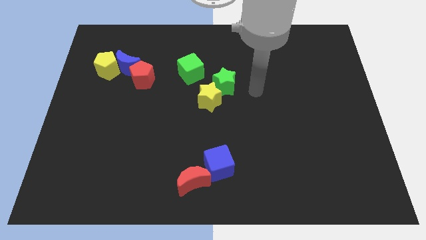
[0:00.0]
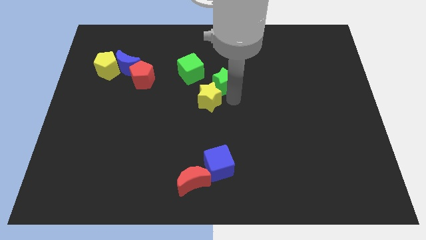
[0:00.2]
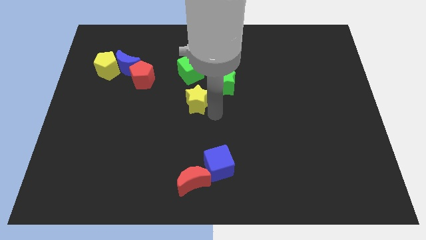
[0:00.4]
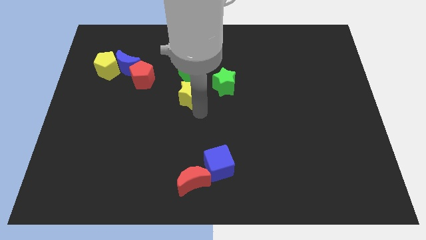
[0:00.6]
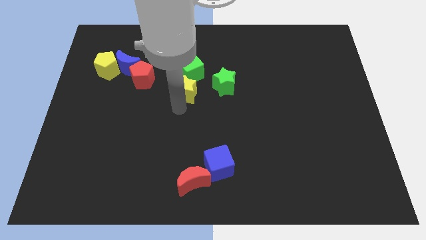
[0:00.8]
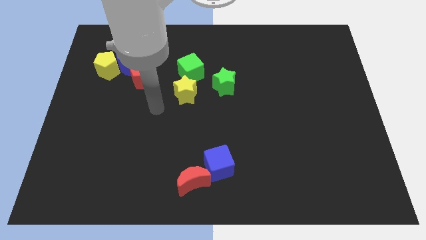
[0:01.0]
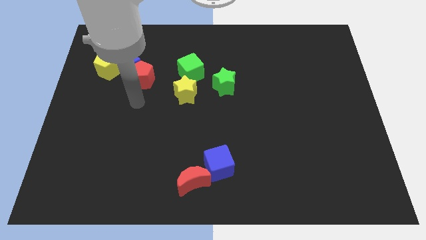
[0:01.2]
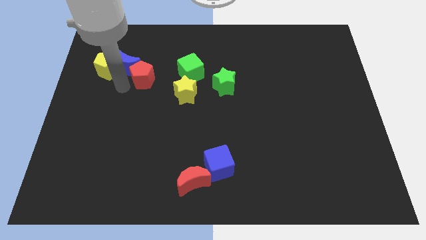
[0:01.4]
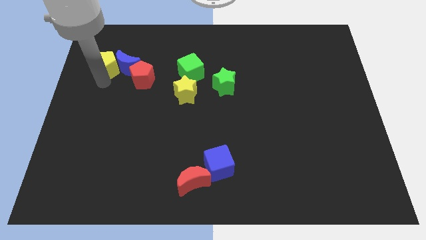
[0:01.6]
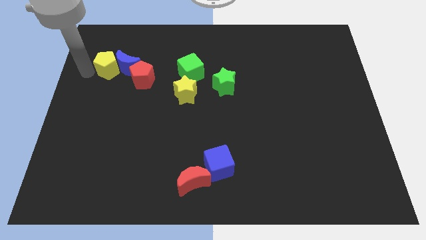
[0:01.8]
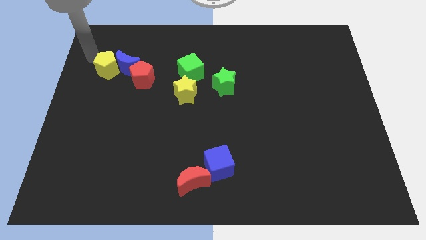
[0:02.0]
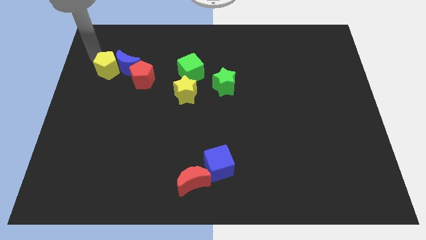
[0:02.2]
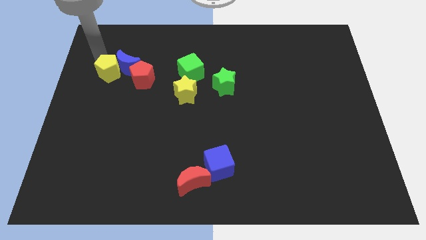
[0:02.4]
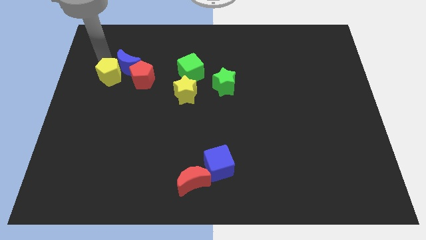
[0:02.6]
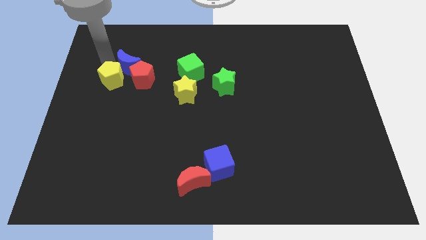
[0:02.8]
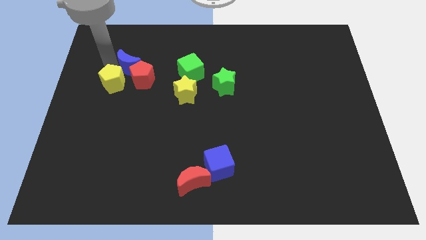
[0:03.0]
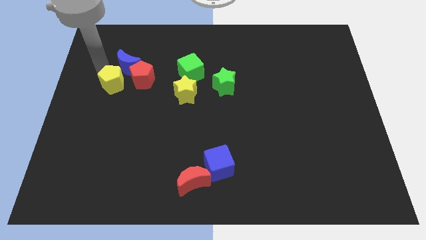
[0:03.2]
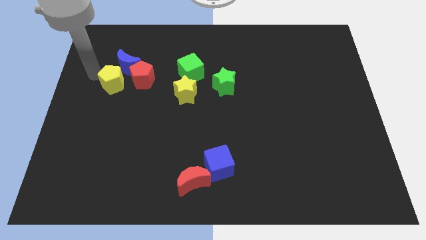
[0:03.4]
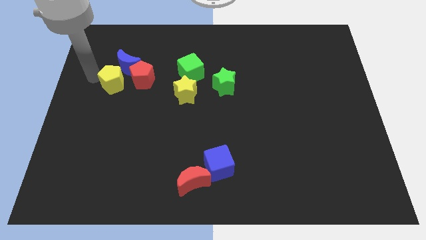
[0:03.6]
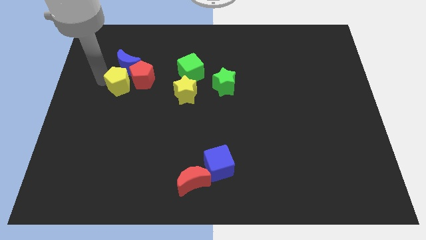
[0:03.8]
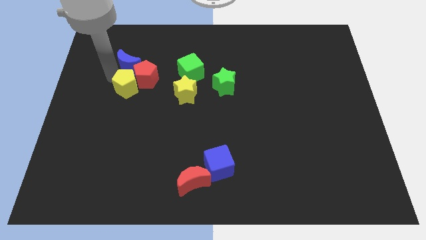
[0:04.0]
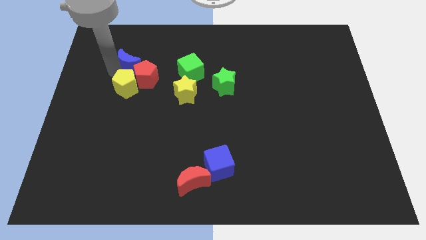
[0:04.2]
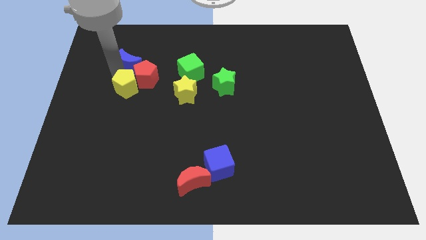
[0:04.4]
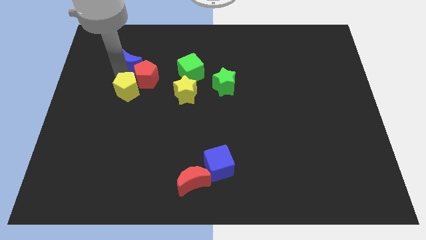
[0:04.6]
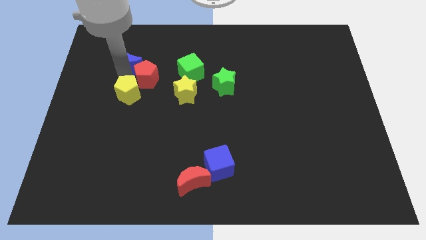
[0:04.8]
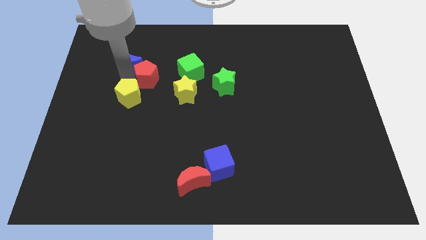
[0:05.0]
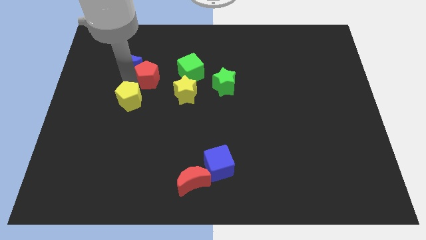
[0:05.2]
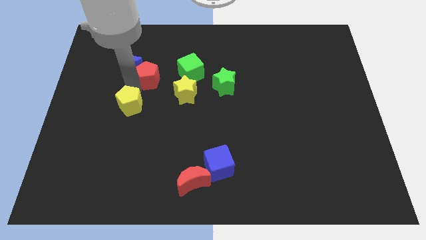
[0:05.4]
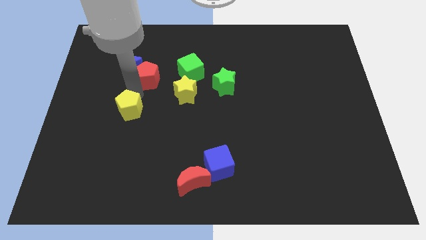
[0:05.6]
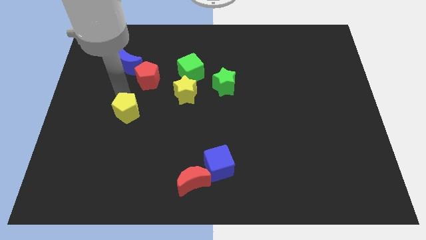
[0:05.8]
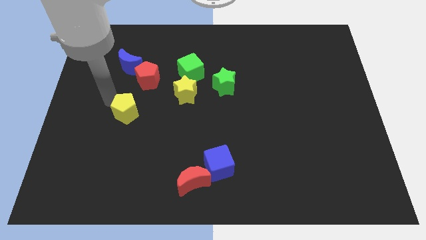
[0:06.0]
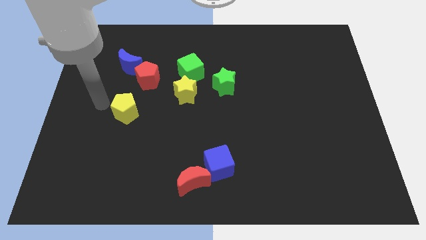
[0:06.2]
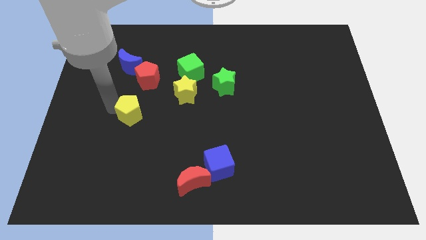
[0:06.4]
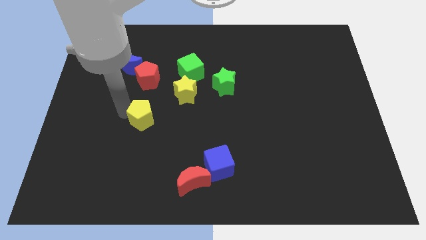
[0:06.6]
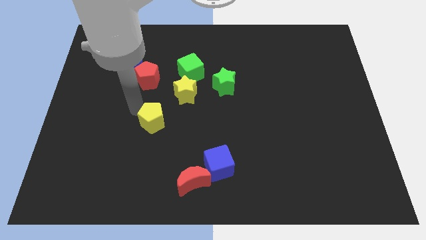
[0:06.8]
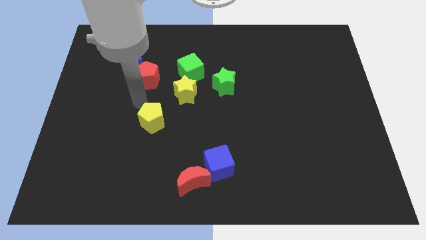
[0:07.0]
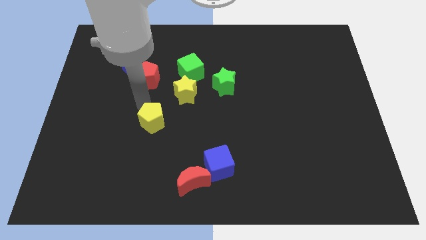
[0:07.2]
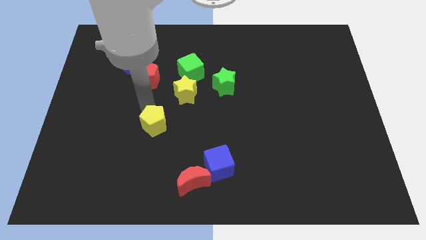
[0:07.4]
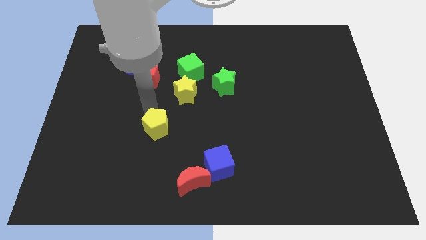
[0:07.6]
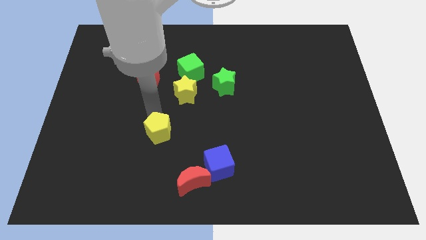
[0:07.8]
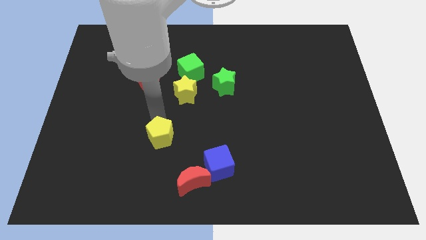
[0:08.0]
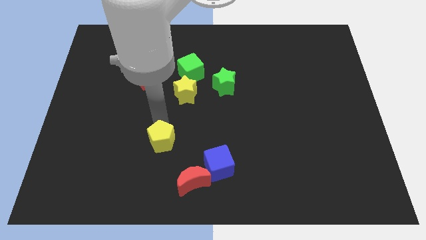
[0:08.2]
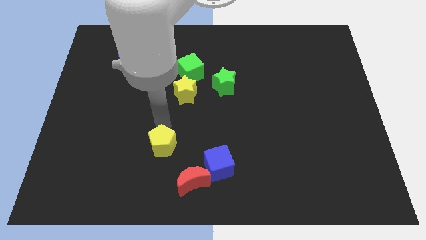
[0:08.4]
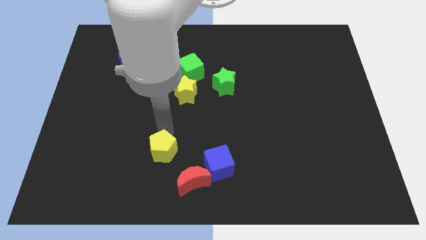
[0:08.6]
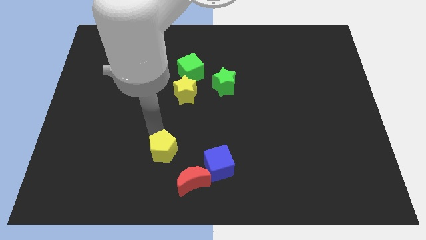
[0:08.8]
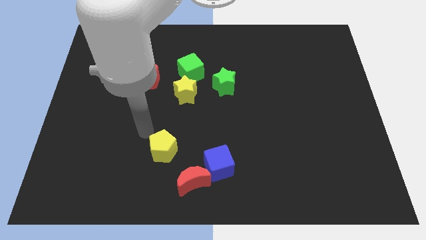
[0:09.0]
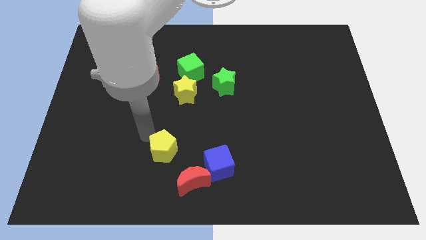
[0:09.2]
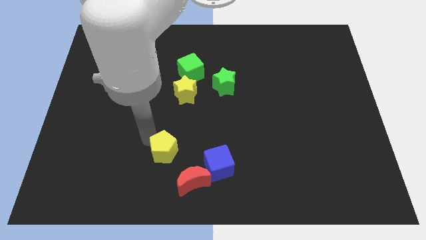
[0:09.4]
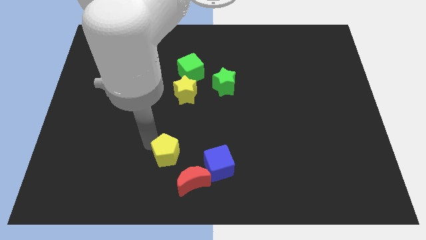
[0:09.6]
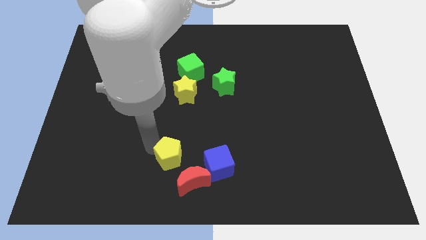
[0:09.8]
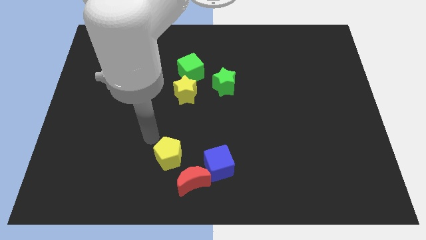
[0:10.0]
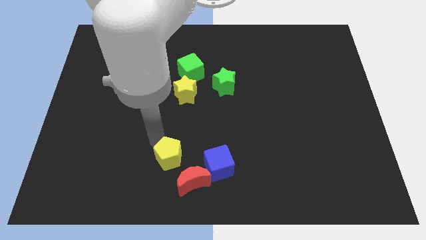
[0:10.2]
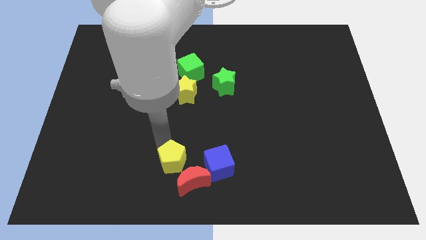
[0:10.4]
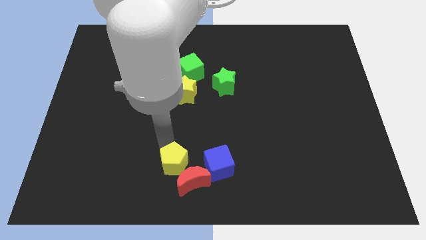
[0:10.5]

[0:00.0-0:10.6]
slide the yellow pentagon to the red moon
